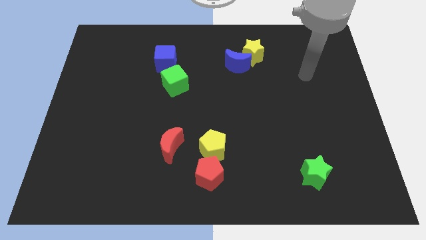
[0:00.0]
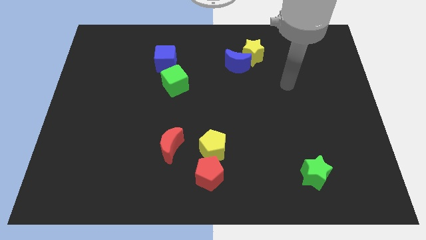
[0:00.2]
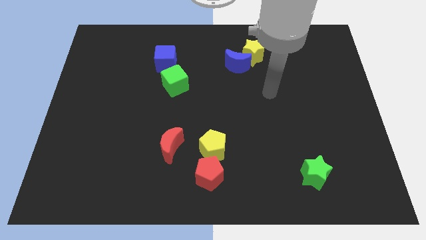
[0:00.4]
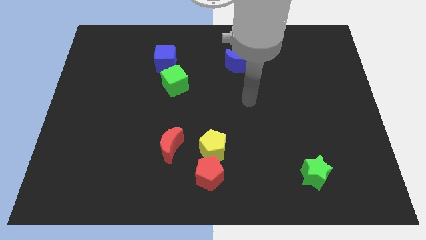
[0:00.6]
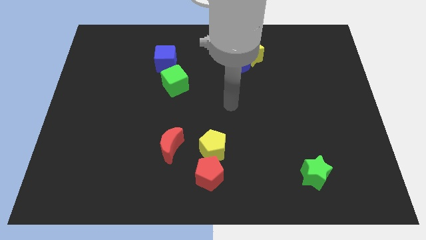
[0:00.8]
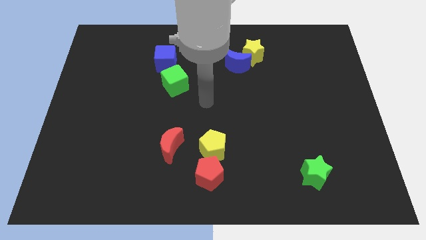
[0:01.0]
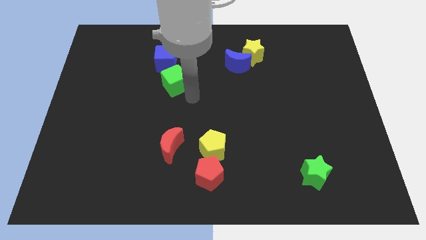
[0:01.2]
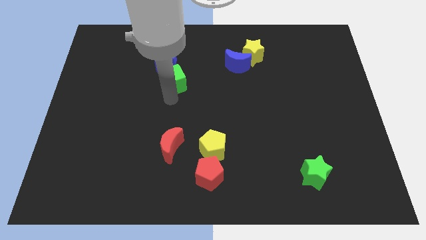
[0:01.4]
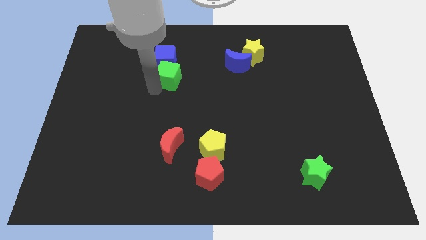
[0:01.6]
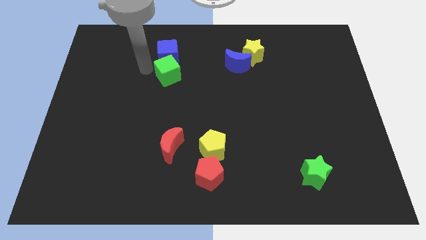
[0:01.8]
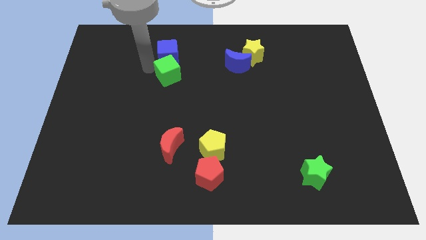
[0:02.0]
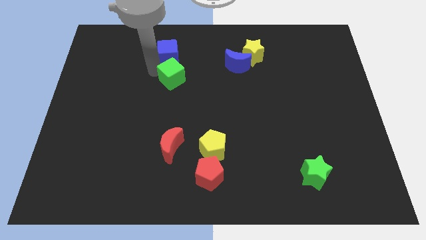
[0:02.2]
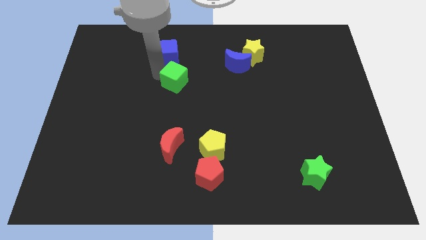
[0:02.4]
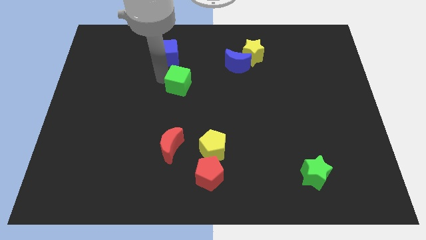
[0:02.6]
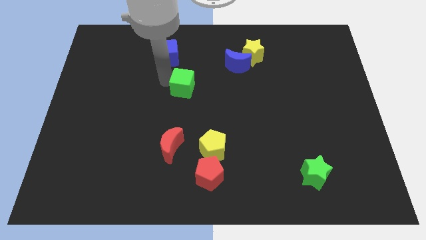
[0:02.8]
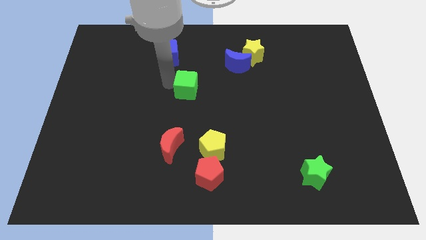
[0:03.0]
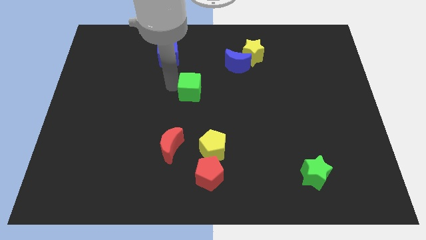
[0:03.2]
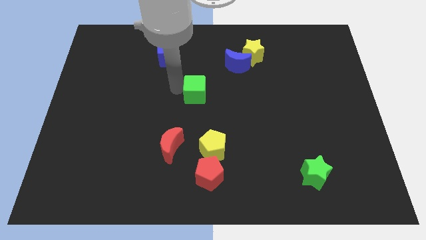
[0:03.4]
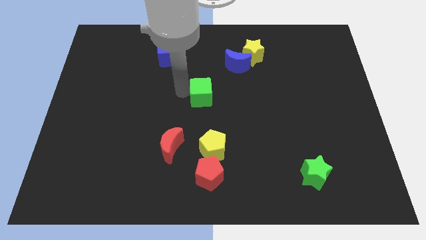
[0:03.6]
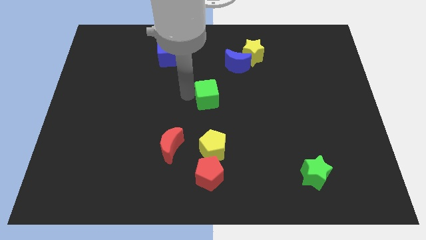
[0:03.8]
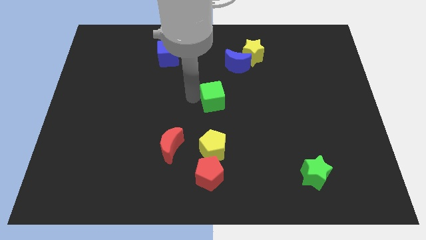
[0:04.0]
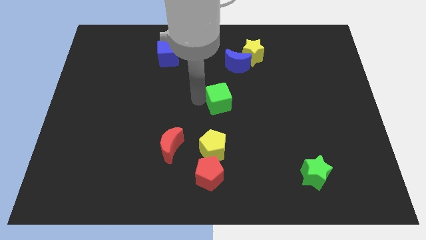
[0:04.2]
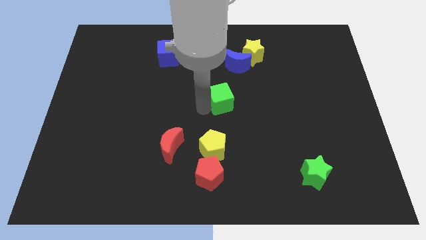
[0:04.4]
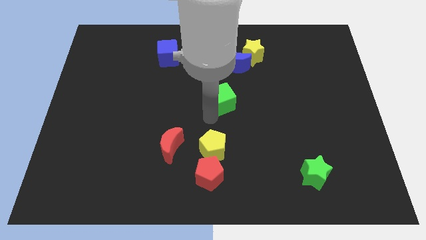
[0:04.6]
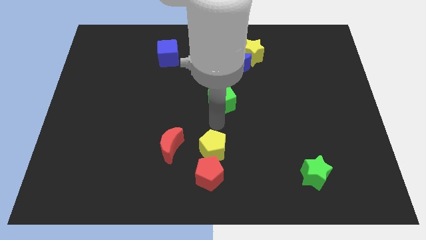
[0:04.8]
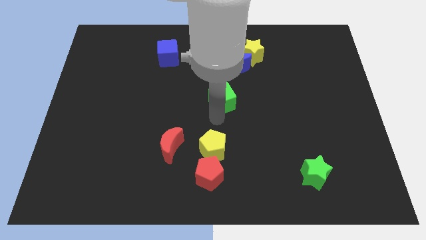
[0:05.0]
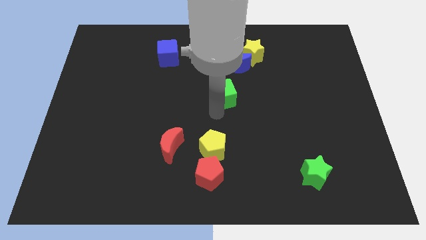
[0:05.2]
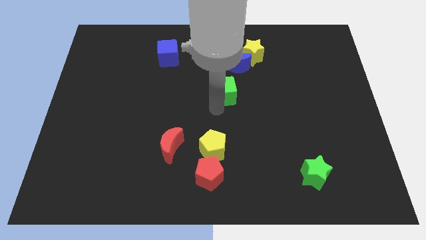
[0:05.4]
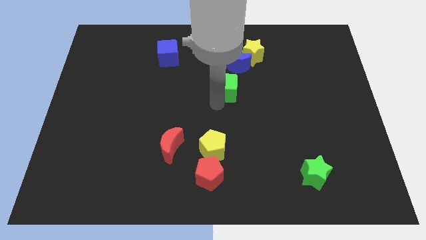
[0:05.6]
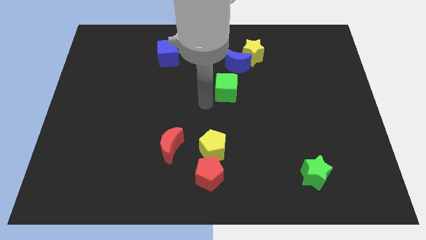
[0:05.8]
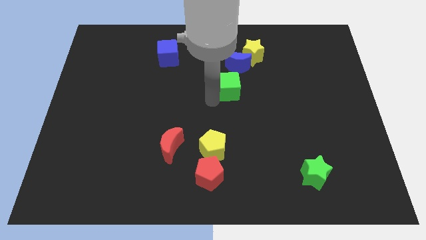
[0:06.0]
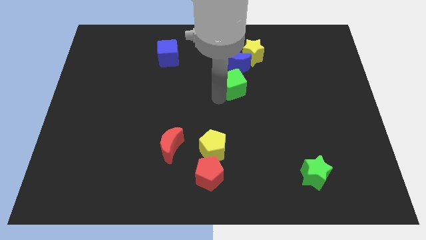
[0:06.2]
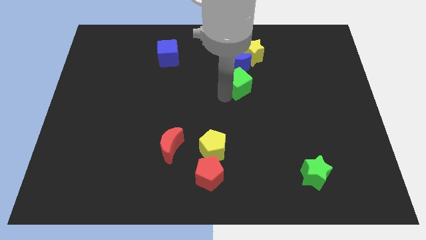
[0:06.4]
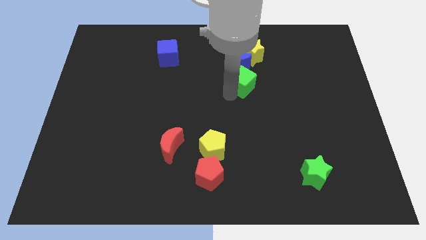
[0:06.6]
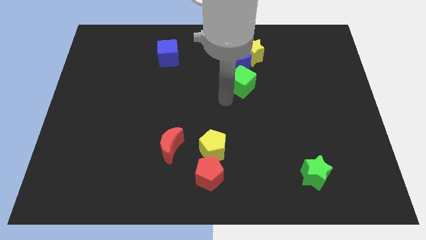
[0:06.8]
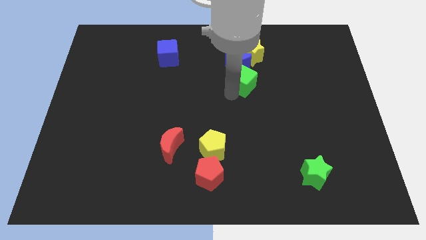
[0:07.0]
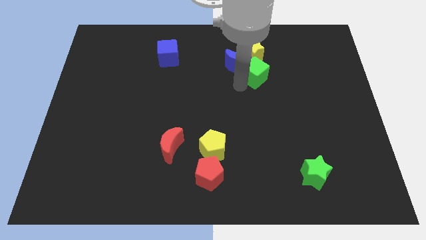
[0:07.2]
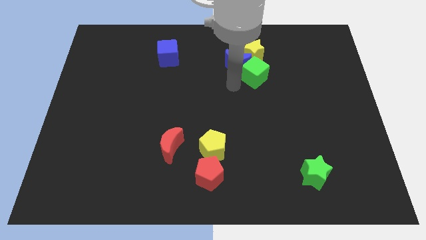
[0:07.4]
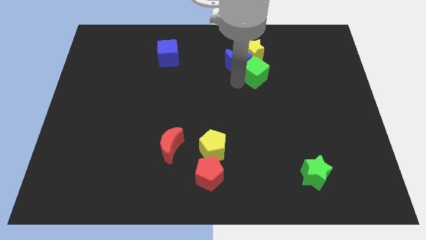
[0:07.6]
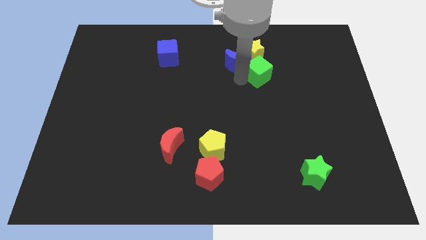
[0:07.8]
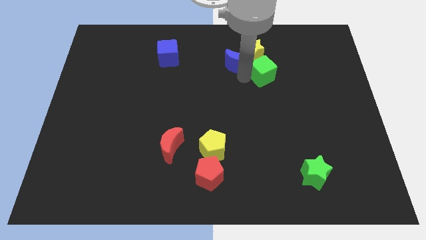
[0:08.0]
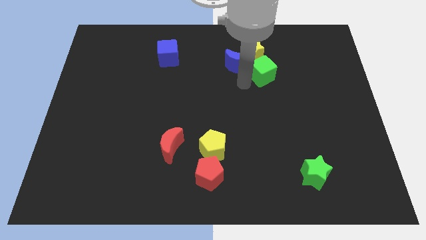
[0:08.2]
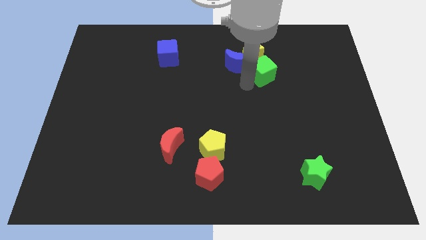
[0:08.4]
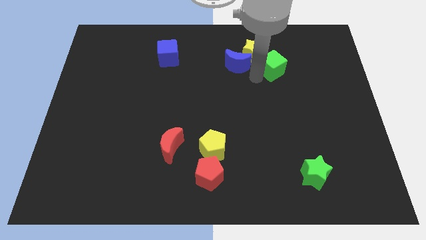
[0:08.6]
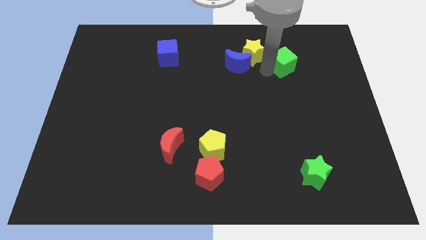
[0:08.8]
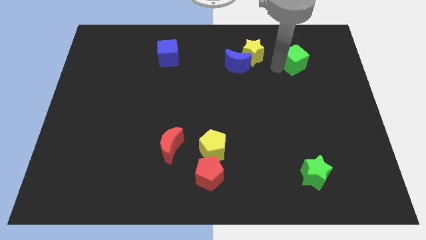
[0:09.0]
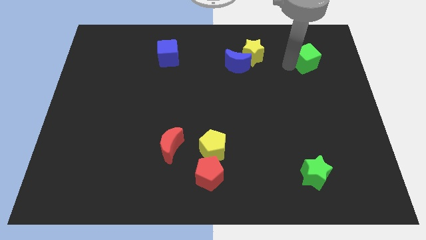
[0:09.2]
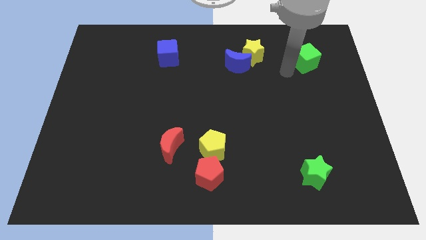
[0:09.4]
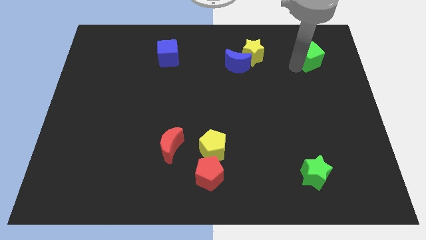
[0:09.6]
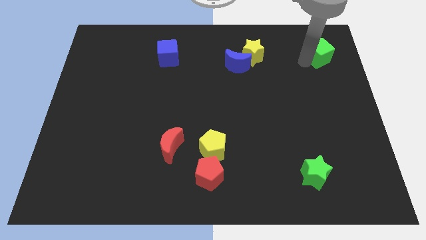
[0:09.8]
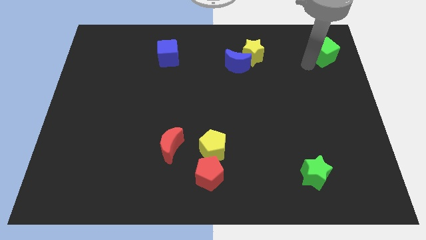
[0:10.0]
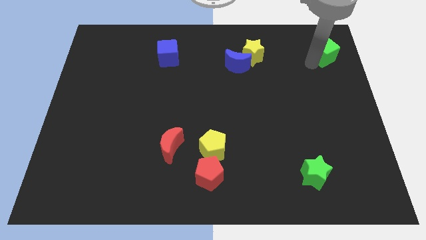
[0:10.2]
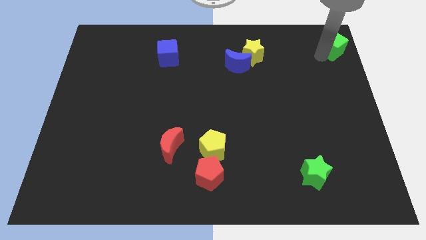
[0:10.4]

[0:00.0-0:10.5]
slide the green cube to the upper right corner
